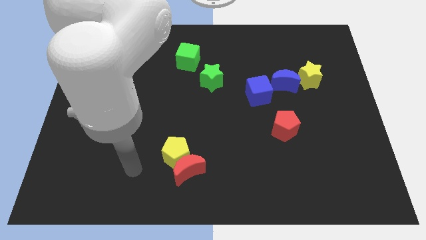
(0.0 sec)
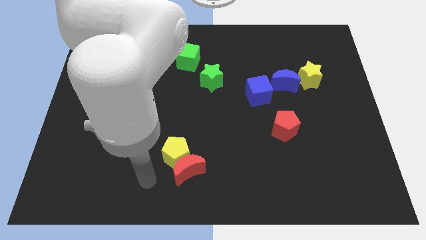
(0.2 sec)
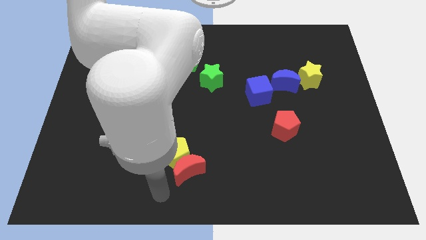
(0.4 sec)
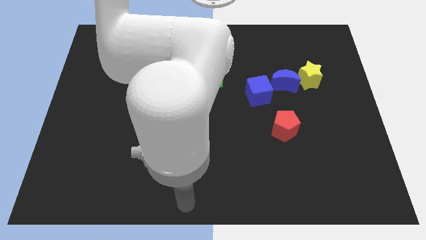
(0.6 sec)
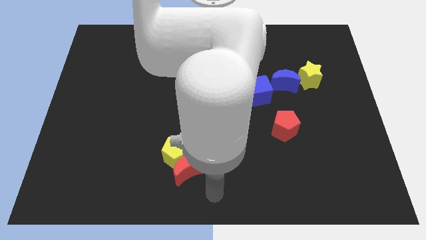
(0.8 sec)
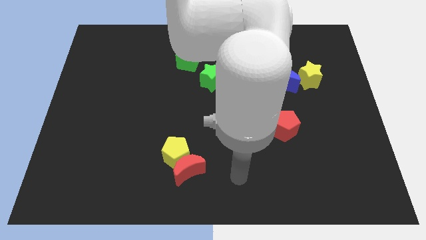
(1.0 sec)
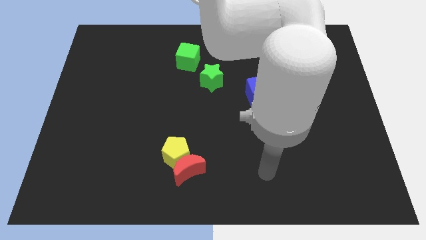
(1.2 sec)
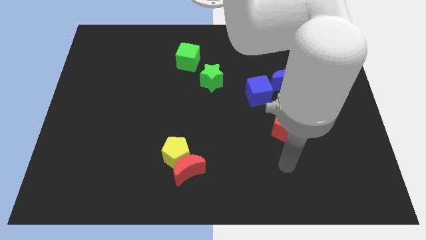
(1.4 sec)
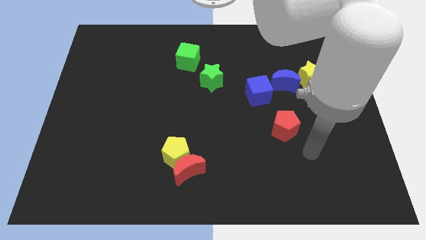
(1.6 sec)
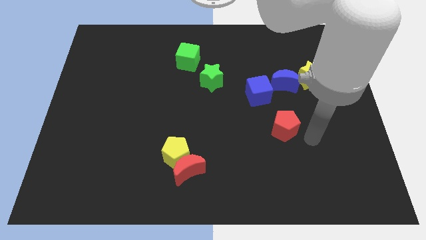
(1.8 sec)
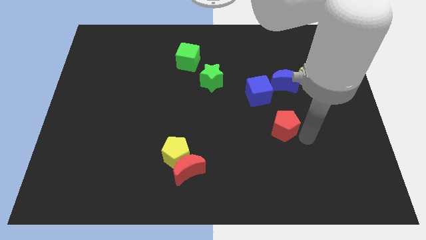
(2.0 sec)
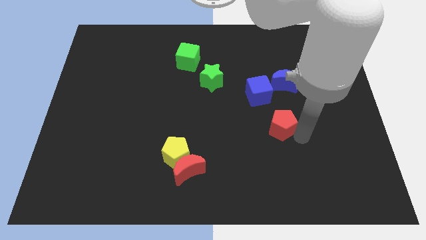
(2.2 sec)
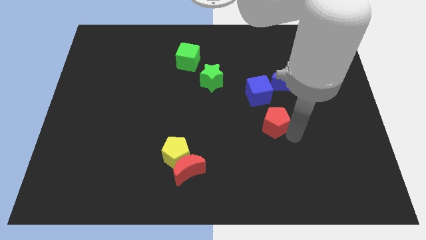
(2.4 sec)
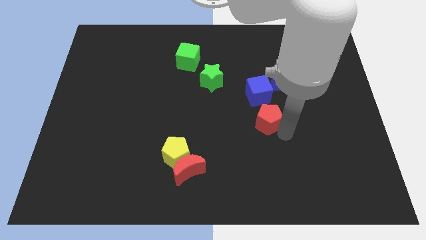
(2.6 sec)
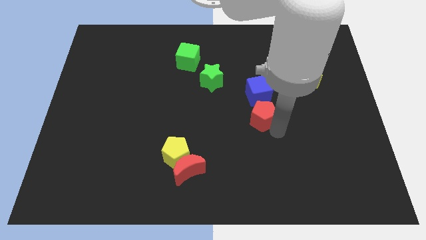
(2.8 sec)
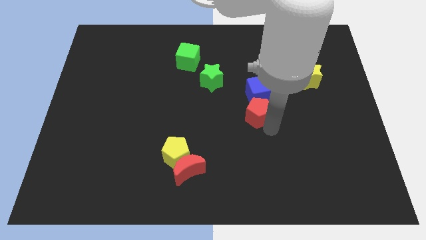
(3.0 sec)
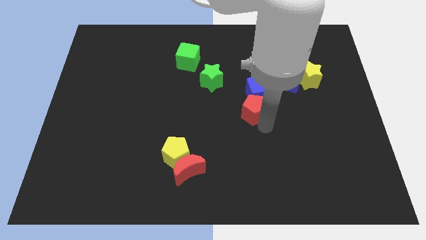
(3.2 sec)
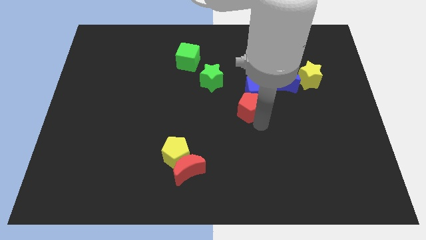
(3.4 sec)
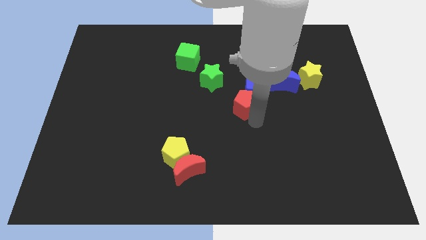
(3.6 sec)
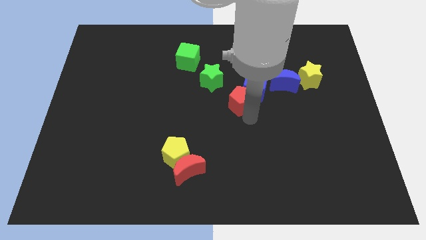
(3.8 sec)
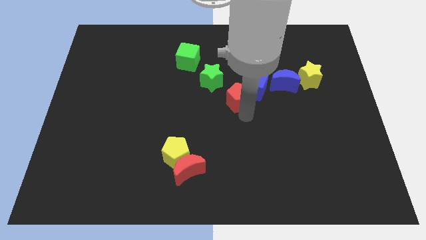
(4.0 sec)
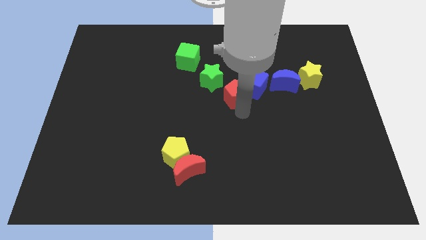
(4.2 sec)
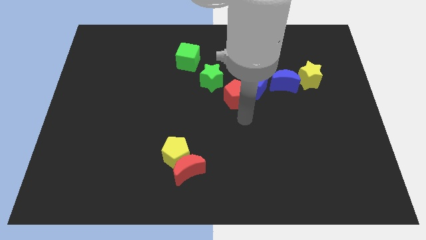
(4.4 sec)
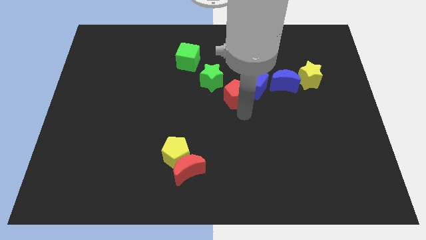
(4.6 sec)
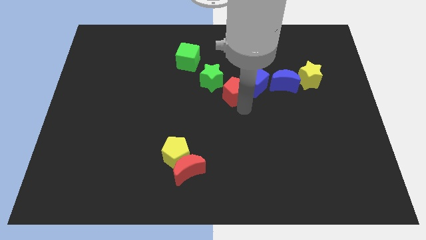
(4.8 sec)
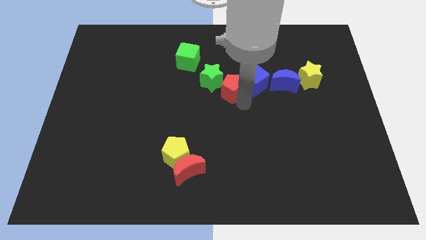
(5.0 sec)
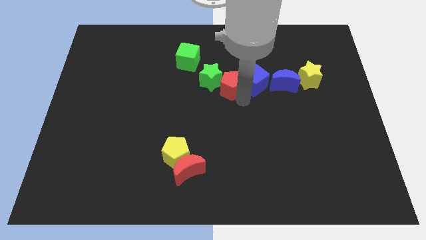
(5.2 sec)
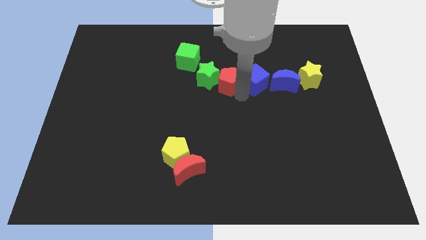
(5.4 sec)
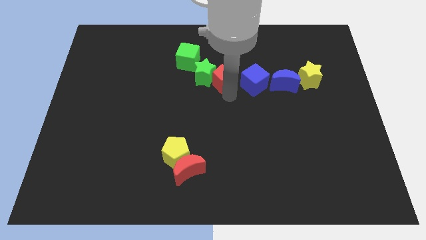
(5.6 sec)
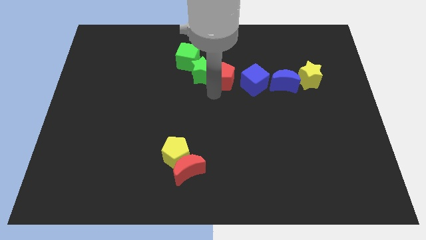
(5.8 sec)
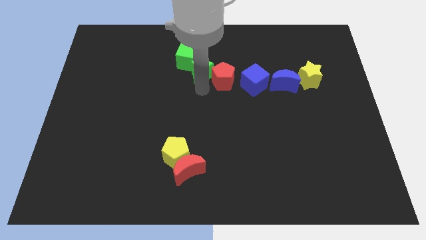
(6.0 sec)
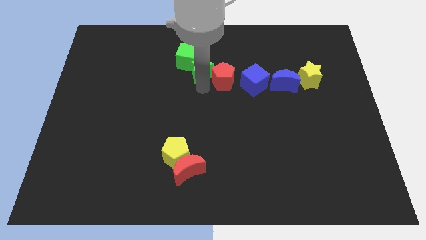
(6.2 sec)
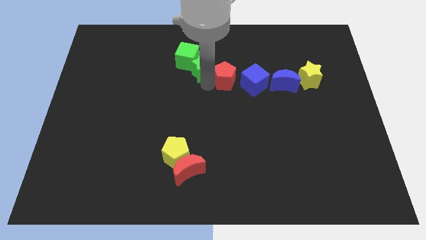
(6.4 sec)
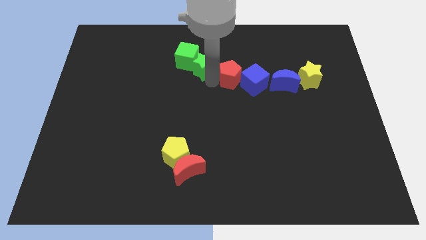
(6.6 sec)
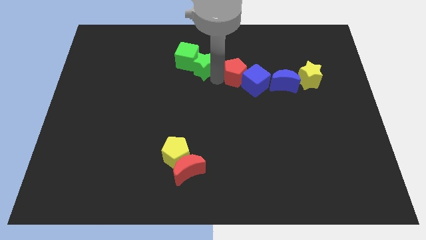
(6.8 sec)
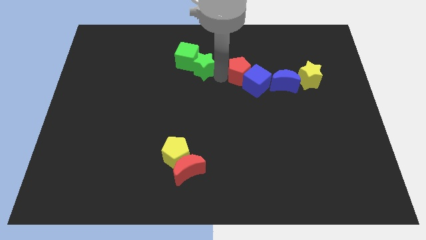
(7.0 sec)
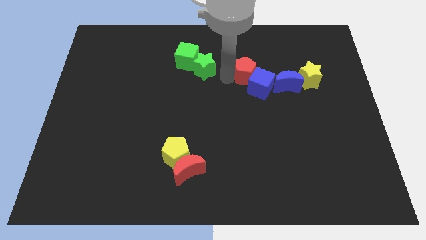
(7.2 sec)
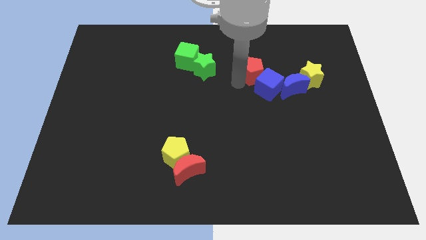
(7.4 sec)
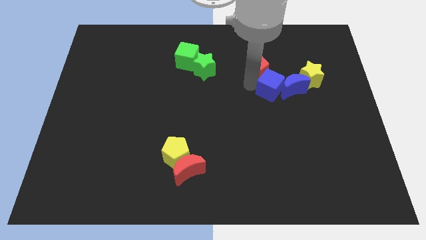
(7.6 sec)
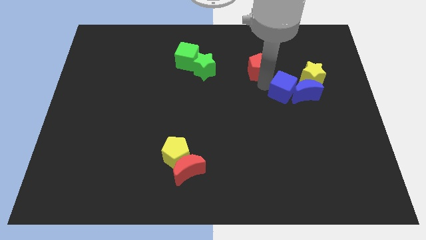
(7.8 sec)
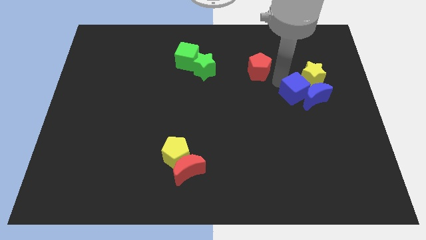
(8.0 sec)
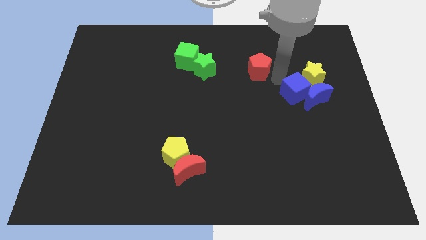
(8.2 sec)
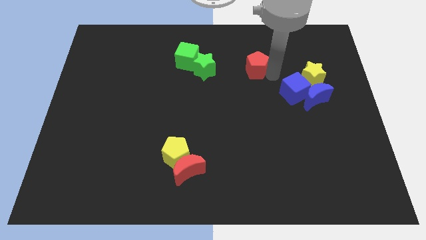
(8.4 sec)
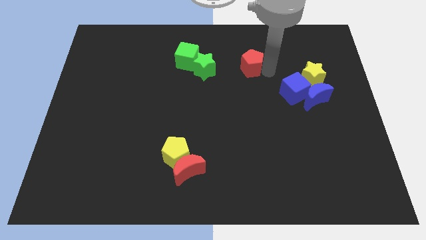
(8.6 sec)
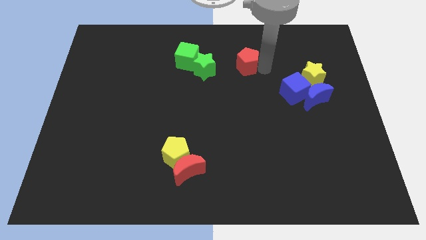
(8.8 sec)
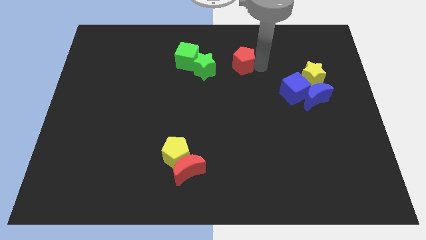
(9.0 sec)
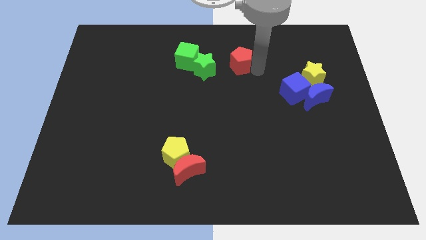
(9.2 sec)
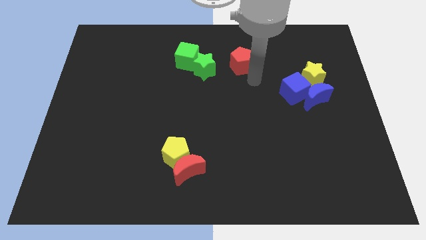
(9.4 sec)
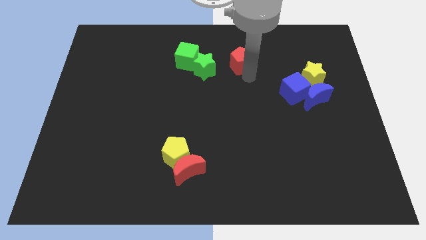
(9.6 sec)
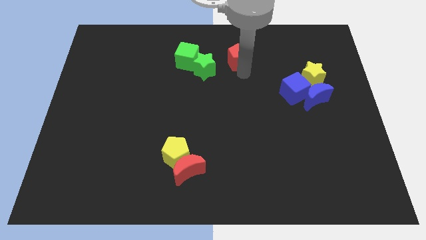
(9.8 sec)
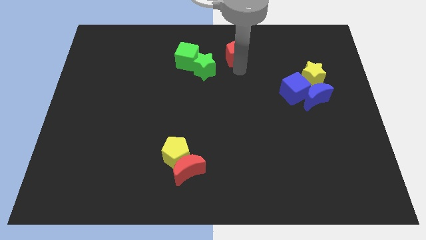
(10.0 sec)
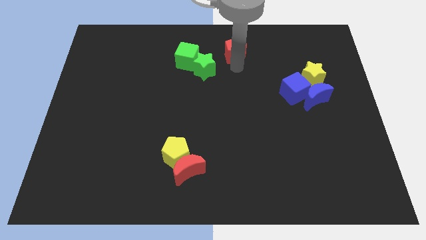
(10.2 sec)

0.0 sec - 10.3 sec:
slide the red pentagon to the top side

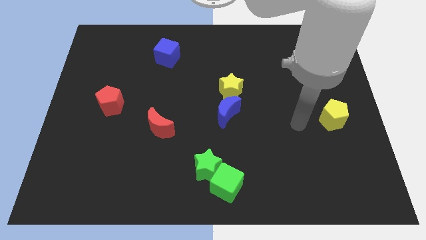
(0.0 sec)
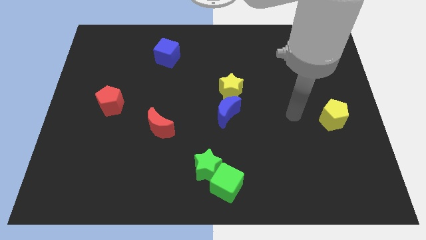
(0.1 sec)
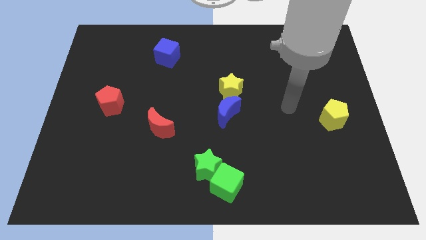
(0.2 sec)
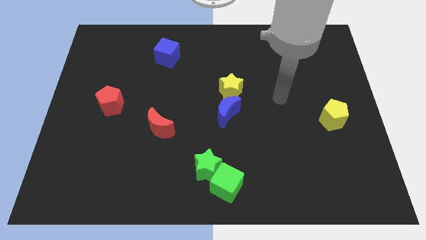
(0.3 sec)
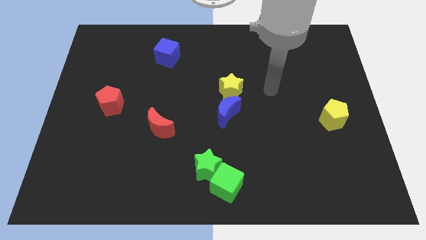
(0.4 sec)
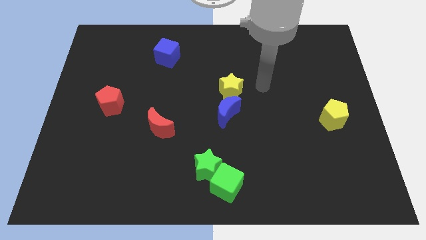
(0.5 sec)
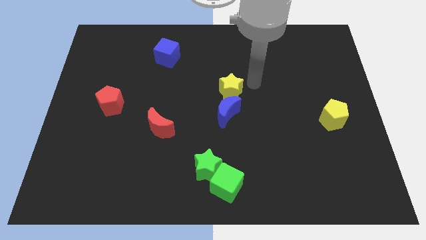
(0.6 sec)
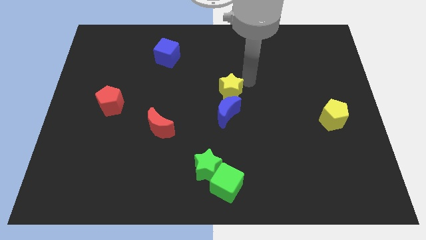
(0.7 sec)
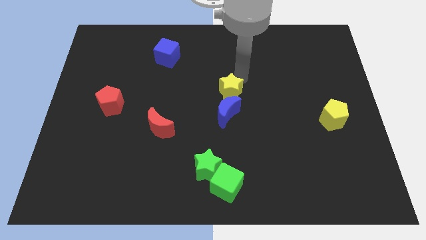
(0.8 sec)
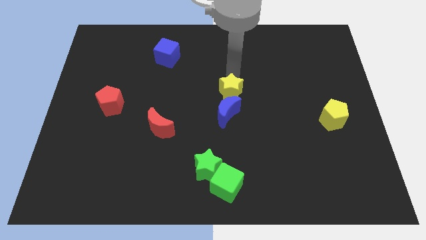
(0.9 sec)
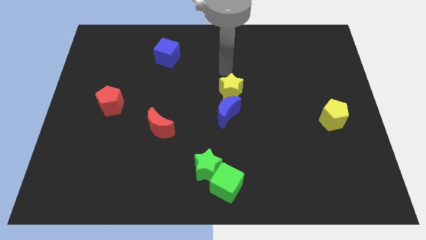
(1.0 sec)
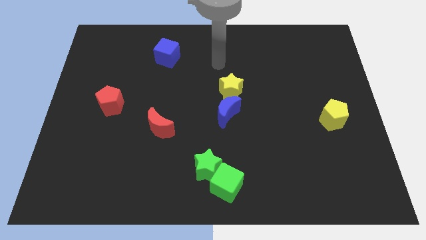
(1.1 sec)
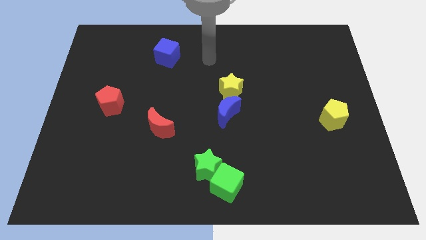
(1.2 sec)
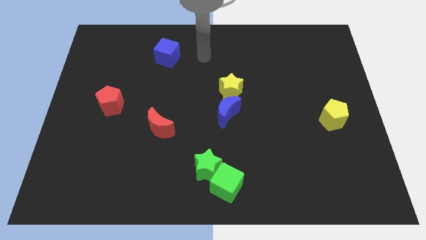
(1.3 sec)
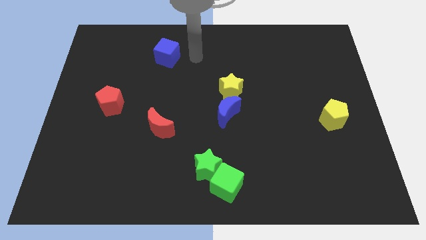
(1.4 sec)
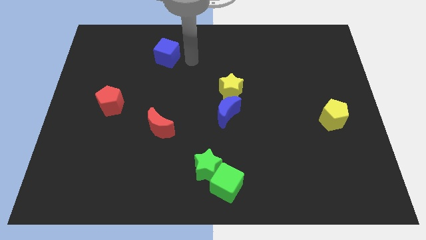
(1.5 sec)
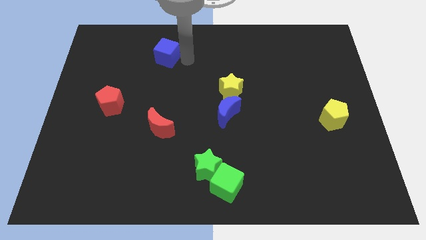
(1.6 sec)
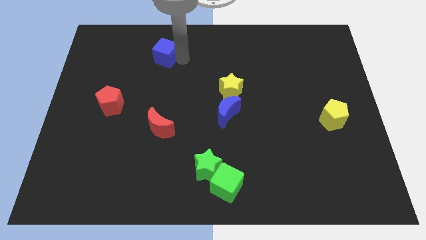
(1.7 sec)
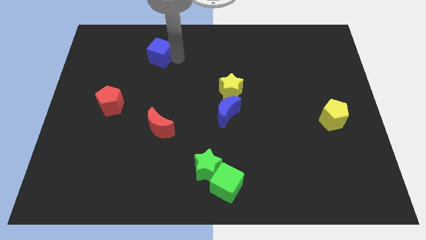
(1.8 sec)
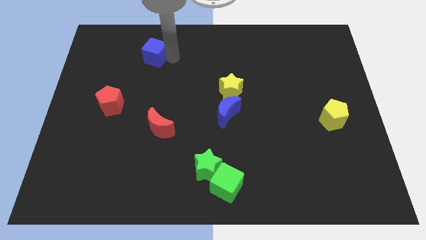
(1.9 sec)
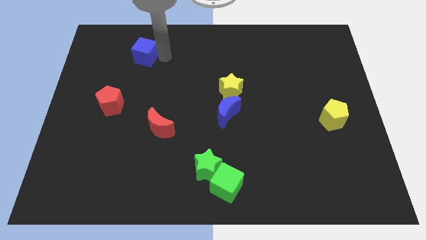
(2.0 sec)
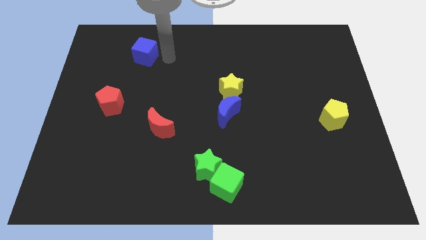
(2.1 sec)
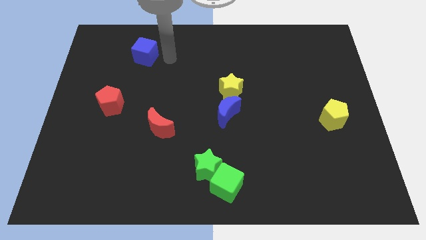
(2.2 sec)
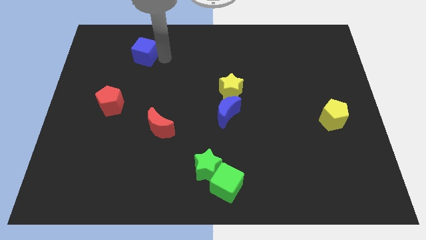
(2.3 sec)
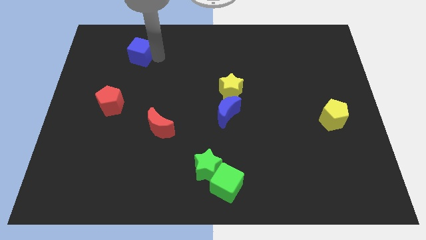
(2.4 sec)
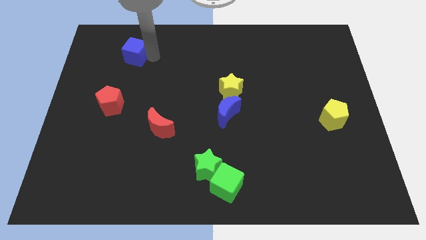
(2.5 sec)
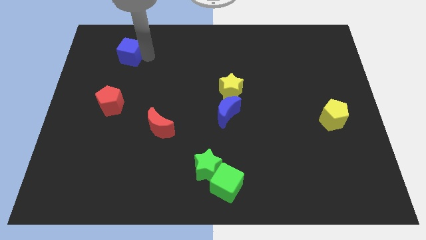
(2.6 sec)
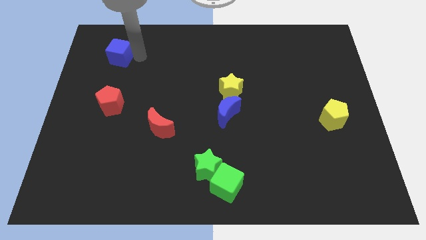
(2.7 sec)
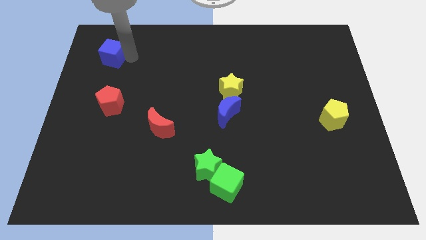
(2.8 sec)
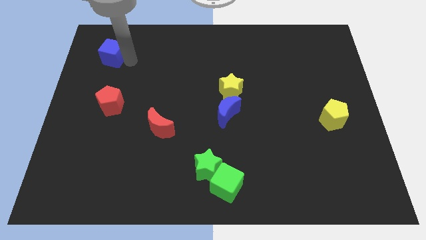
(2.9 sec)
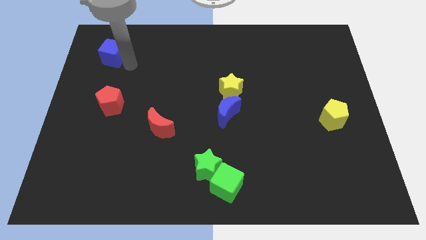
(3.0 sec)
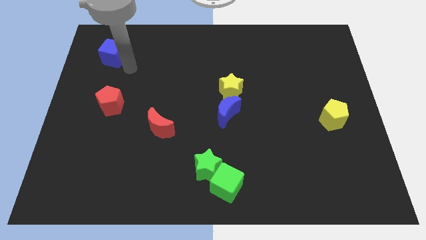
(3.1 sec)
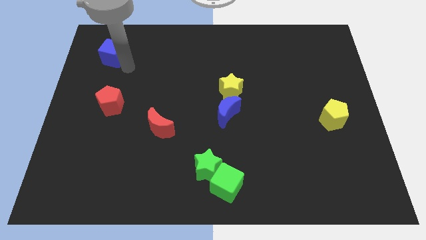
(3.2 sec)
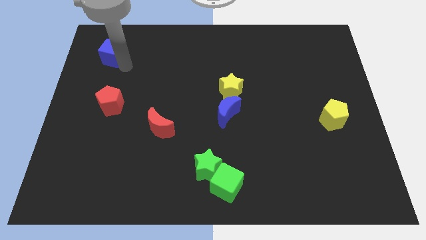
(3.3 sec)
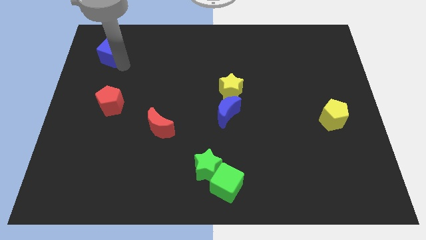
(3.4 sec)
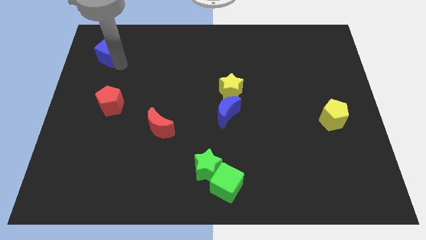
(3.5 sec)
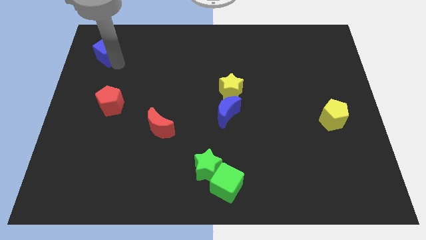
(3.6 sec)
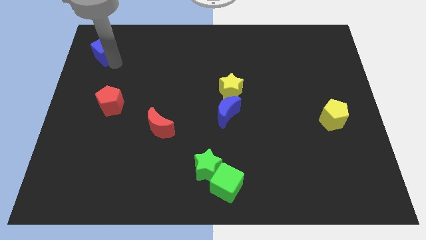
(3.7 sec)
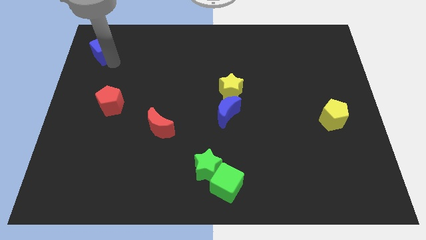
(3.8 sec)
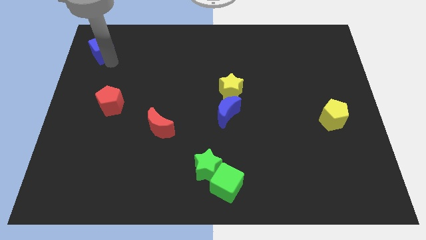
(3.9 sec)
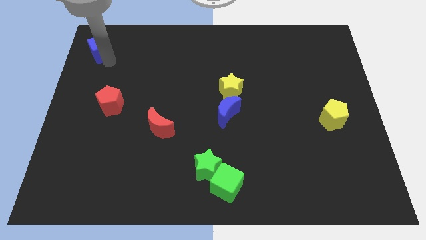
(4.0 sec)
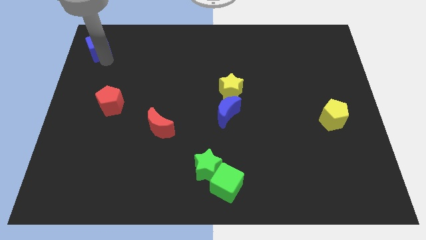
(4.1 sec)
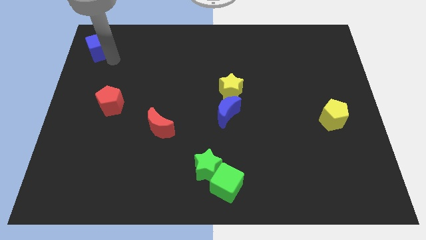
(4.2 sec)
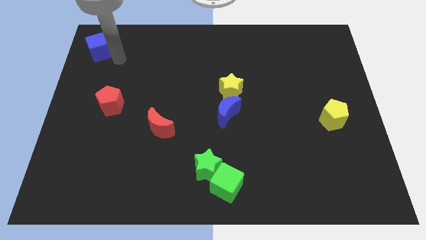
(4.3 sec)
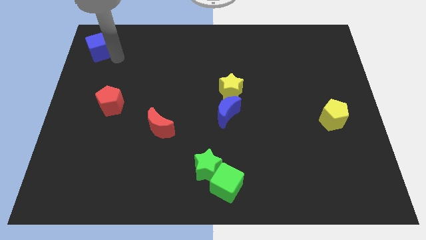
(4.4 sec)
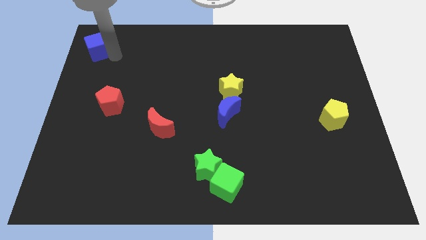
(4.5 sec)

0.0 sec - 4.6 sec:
put the blue cube to the upper left corner
